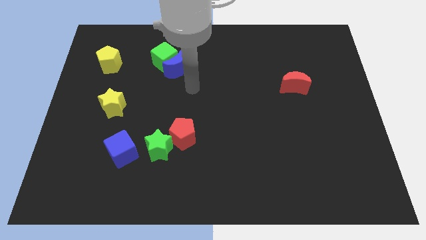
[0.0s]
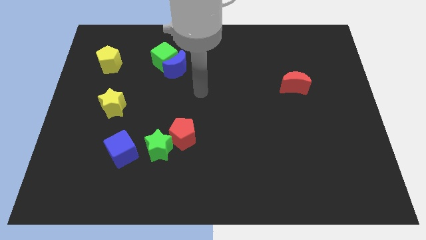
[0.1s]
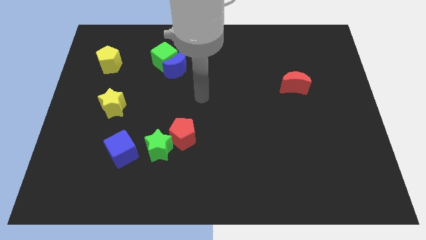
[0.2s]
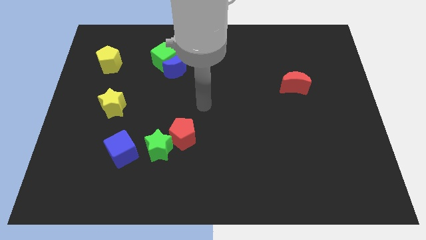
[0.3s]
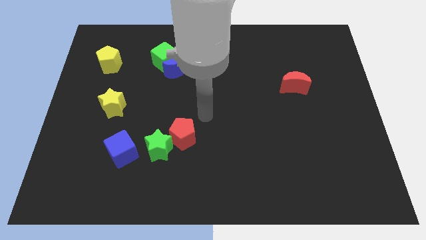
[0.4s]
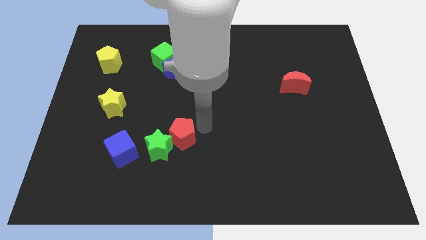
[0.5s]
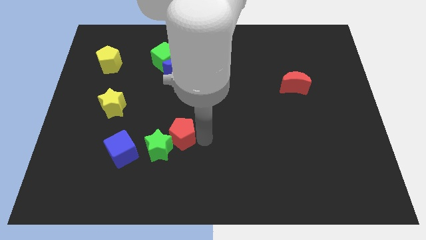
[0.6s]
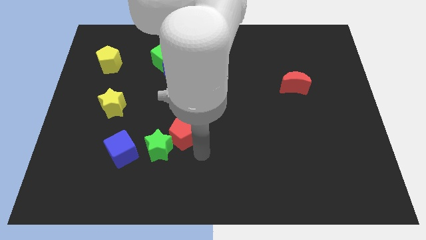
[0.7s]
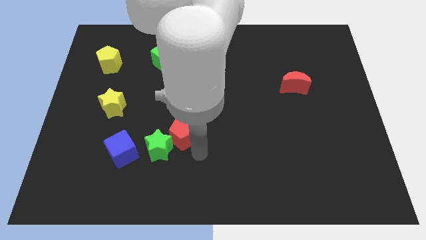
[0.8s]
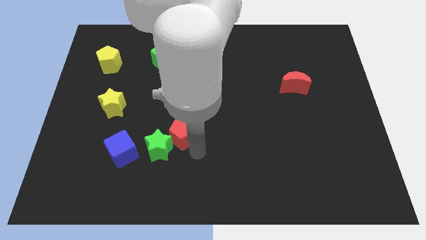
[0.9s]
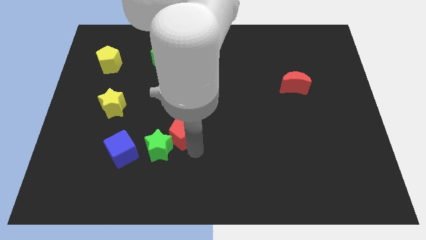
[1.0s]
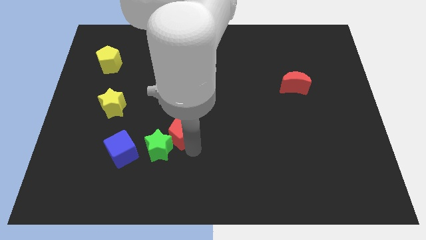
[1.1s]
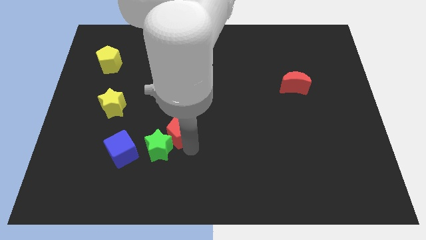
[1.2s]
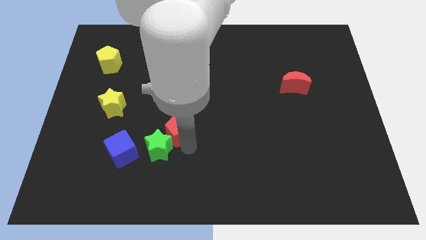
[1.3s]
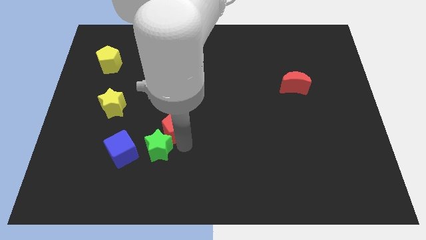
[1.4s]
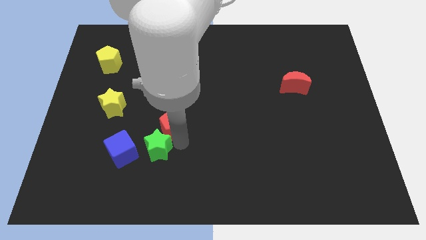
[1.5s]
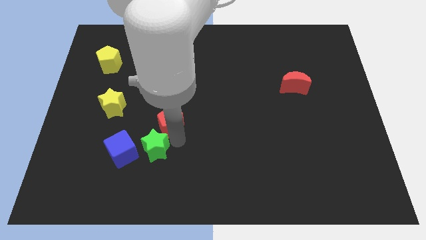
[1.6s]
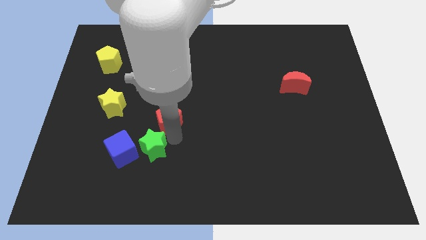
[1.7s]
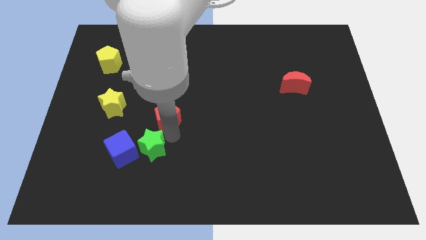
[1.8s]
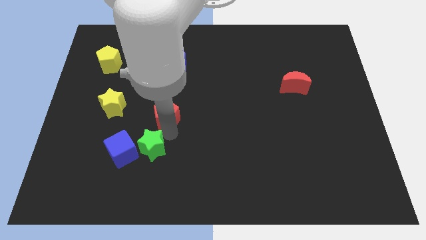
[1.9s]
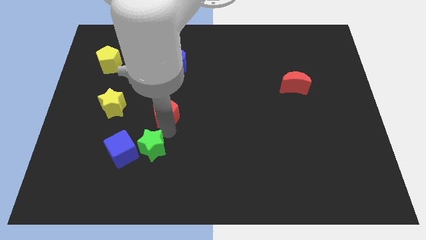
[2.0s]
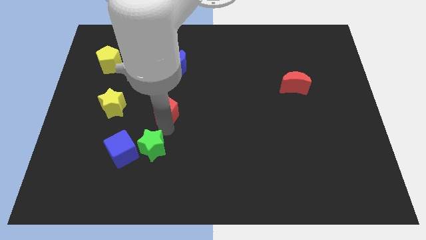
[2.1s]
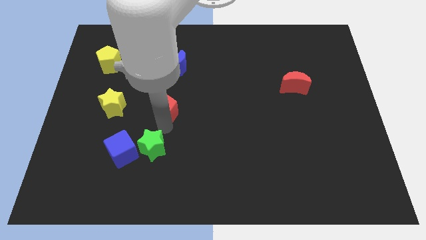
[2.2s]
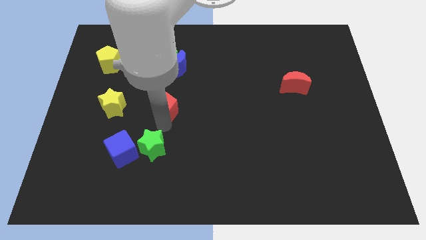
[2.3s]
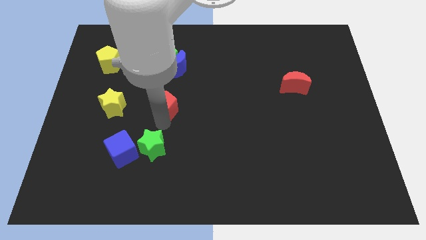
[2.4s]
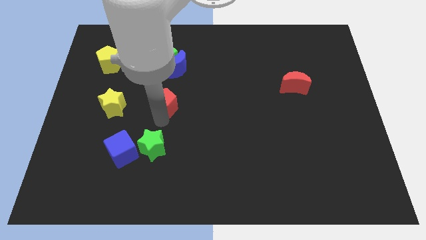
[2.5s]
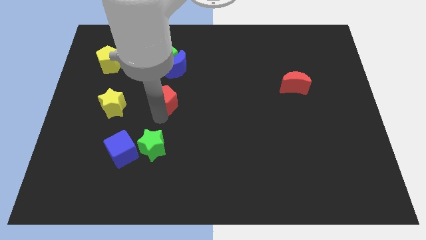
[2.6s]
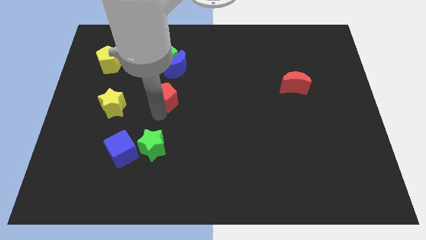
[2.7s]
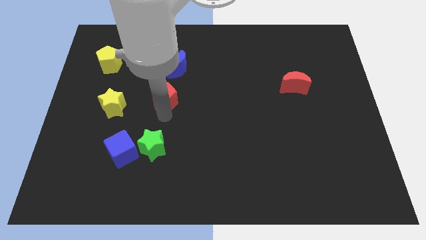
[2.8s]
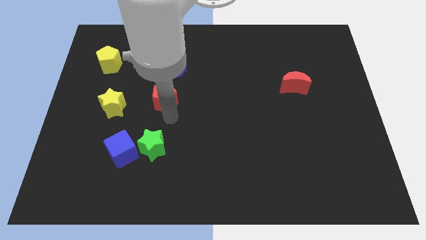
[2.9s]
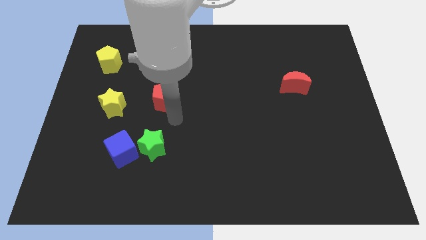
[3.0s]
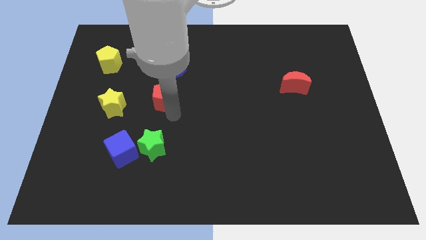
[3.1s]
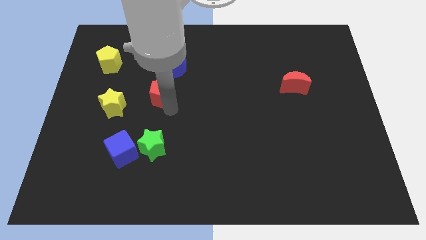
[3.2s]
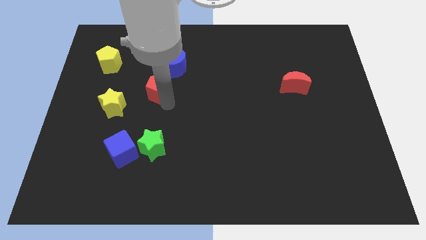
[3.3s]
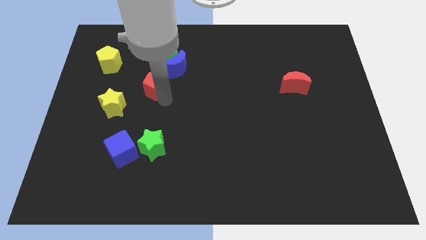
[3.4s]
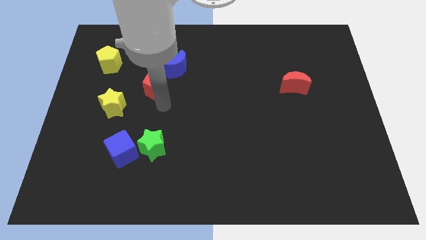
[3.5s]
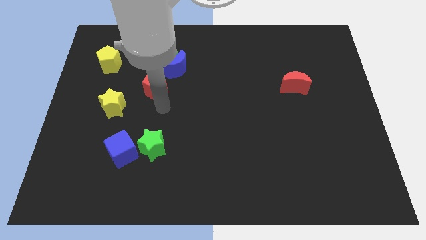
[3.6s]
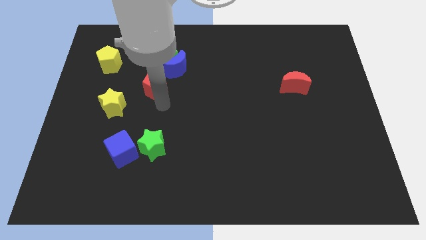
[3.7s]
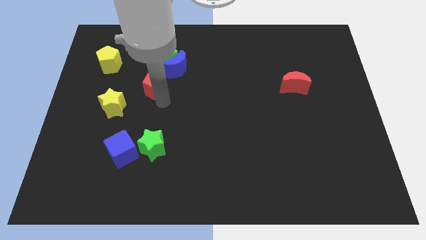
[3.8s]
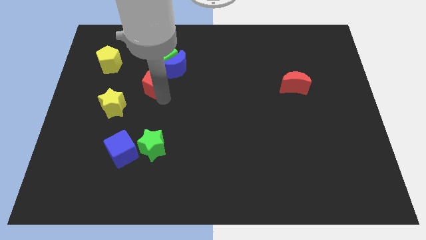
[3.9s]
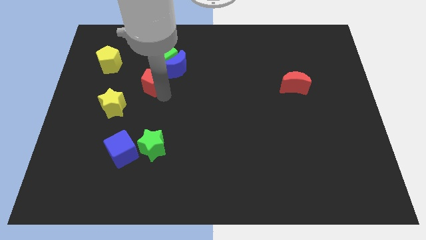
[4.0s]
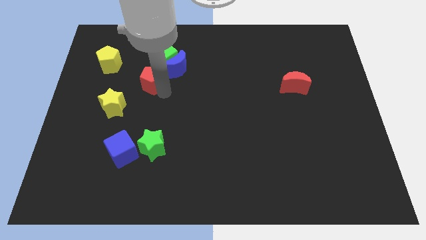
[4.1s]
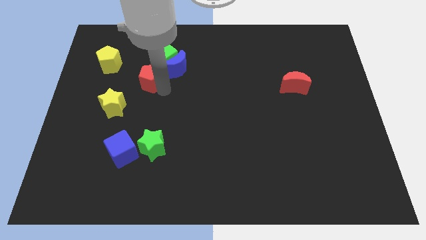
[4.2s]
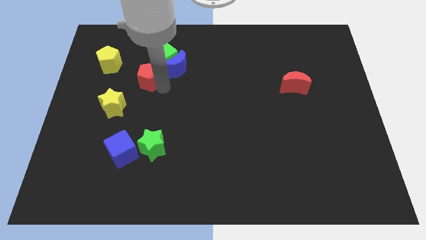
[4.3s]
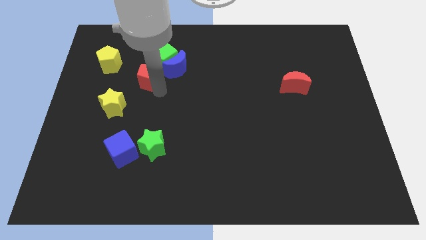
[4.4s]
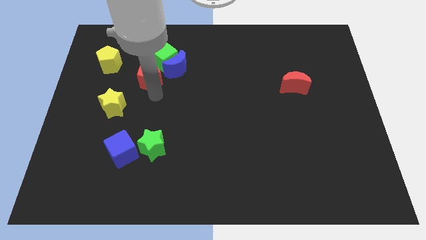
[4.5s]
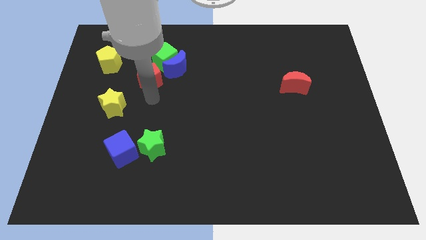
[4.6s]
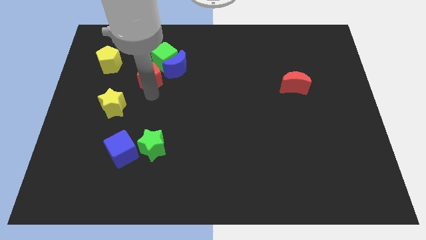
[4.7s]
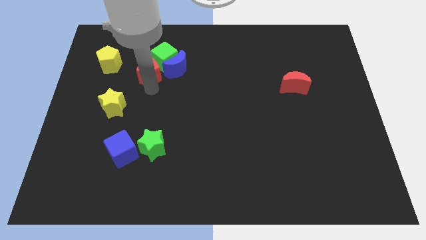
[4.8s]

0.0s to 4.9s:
move the red pentagon just right of the yellow pentagon

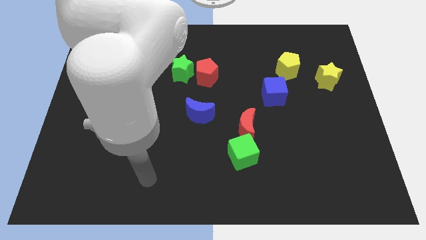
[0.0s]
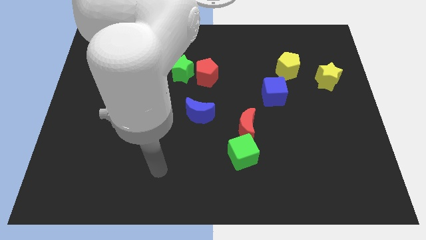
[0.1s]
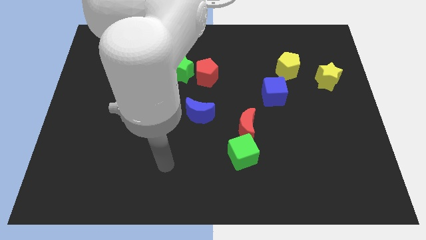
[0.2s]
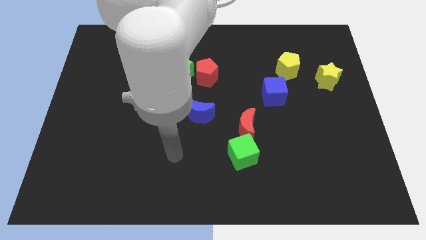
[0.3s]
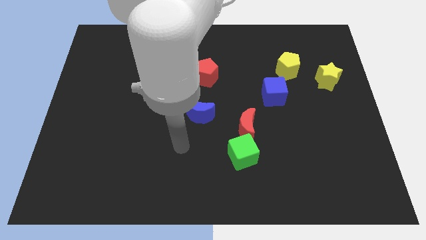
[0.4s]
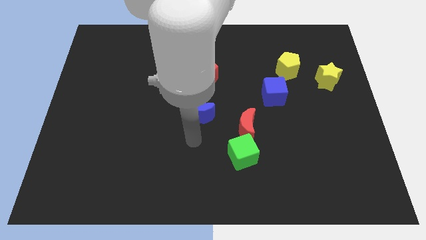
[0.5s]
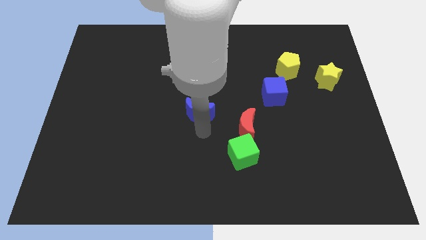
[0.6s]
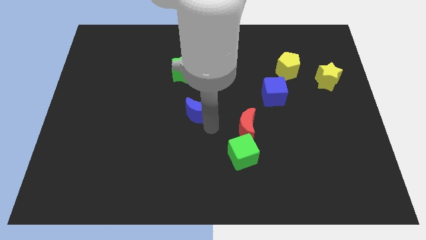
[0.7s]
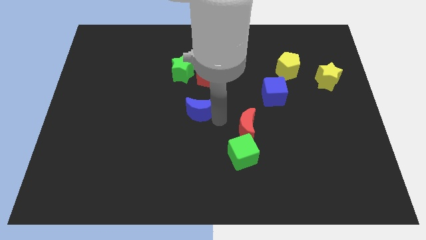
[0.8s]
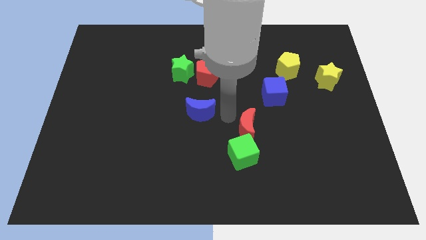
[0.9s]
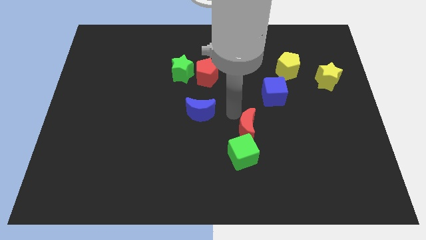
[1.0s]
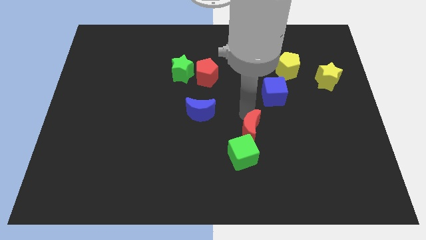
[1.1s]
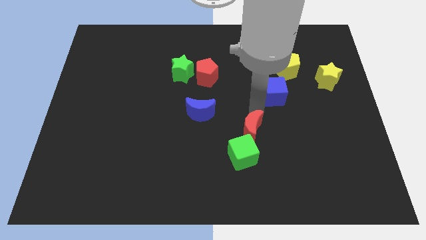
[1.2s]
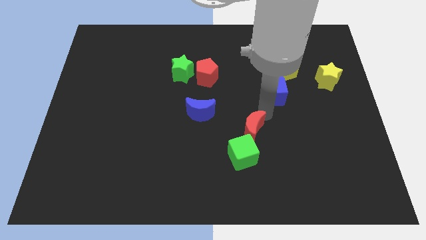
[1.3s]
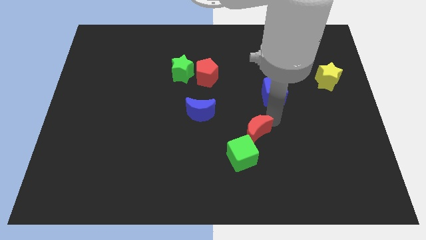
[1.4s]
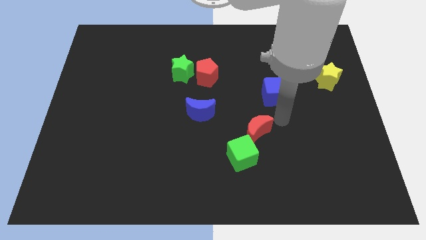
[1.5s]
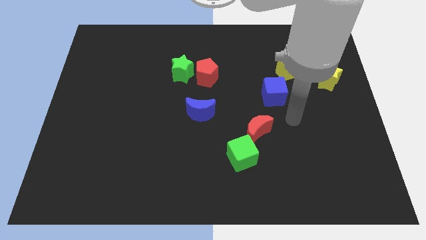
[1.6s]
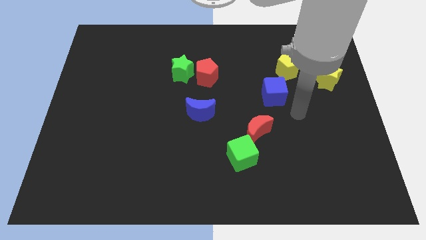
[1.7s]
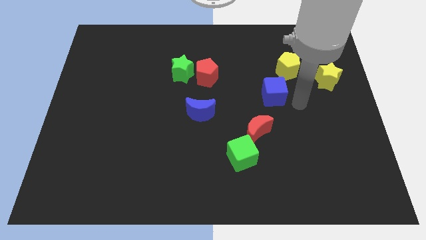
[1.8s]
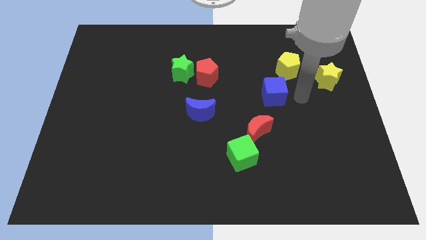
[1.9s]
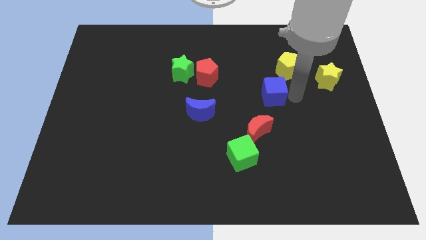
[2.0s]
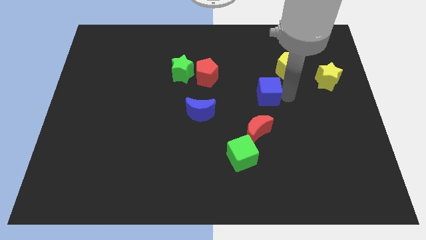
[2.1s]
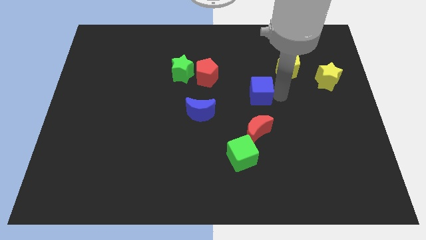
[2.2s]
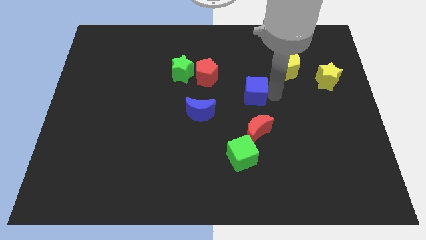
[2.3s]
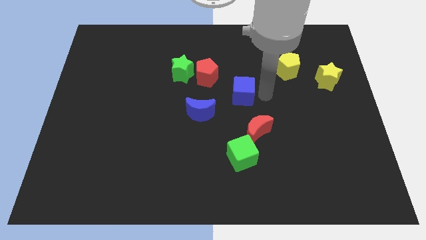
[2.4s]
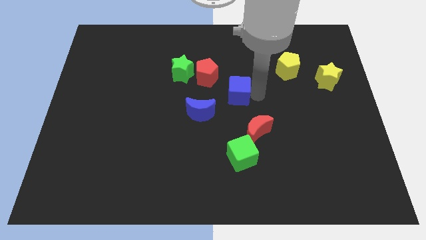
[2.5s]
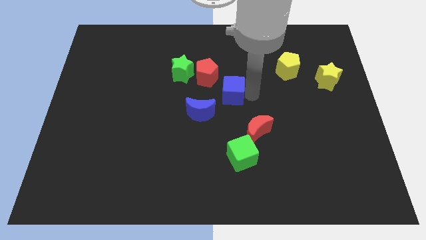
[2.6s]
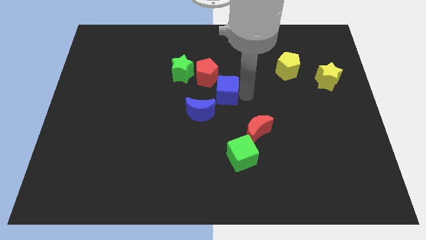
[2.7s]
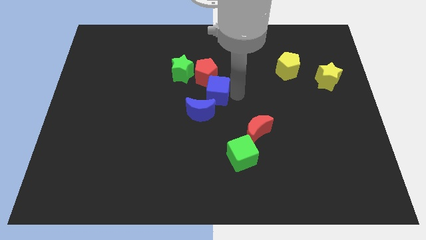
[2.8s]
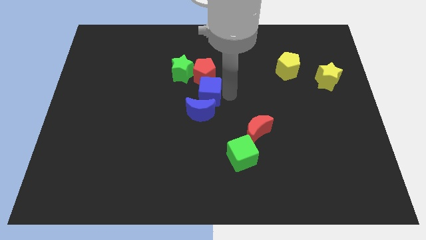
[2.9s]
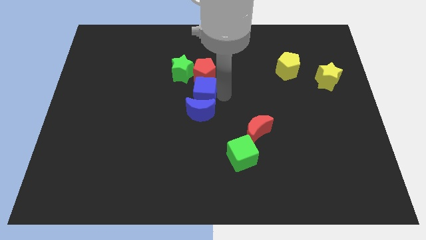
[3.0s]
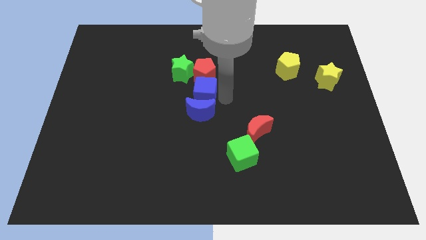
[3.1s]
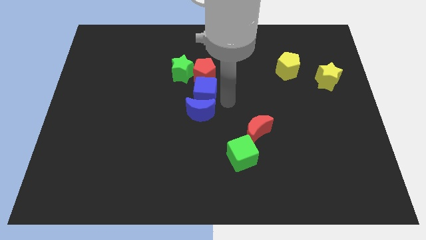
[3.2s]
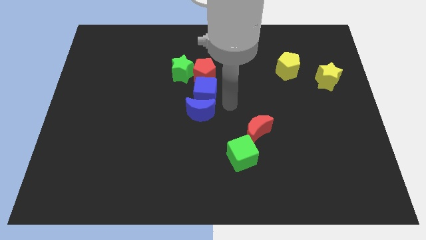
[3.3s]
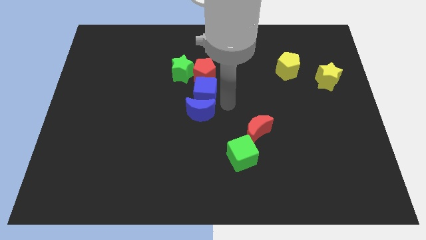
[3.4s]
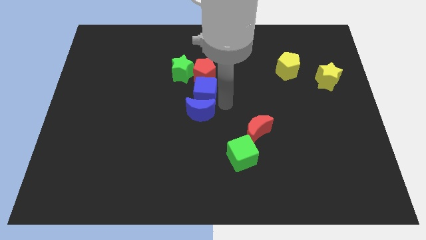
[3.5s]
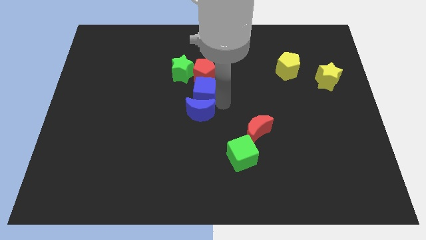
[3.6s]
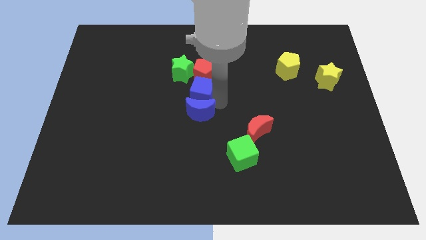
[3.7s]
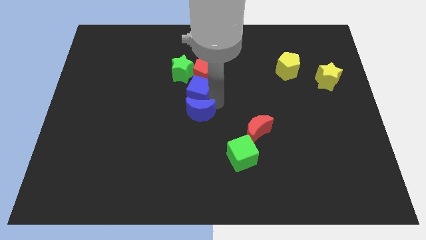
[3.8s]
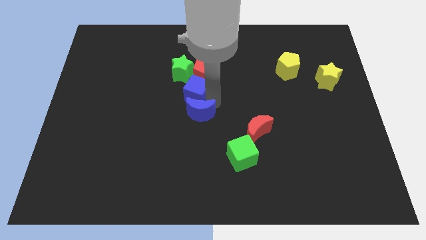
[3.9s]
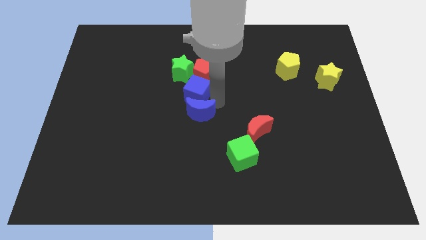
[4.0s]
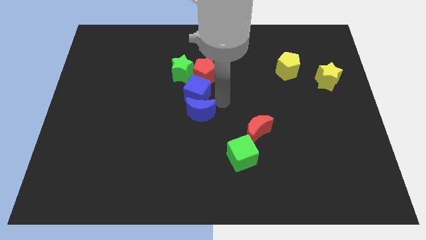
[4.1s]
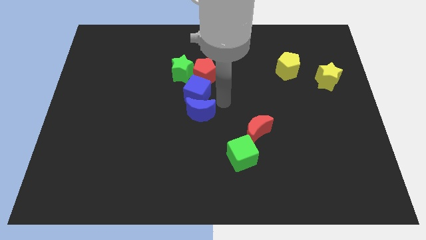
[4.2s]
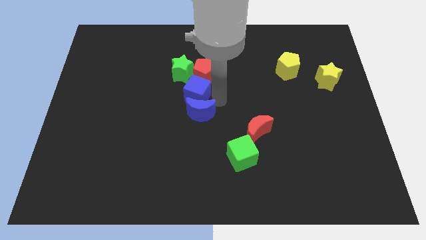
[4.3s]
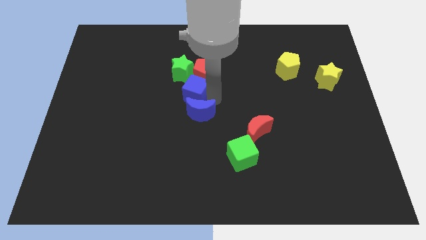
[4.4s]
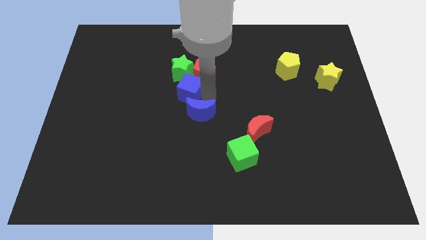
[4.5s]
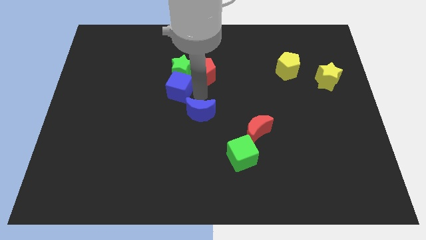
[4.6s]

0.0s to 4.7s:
put the blue cube to the bottom left side of the green star
